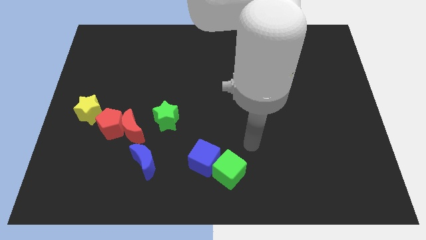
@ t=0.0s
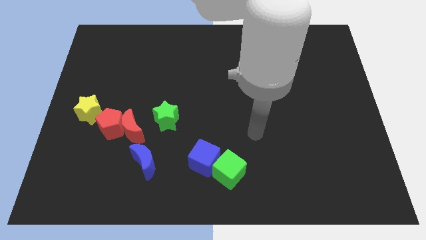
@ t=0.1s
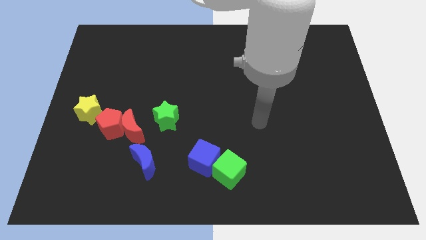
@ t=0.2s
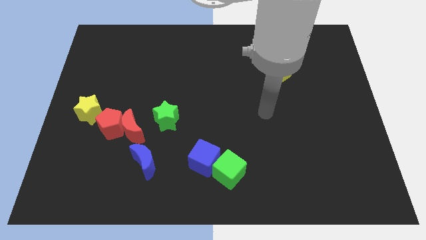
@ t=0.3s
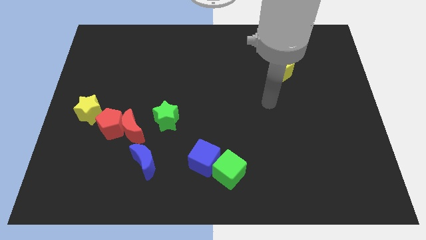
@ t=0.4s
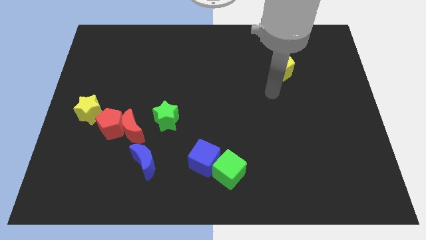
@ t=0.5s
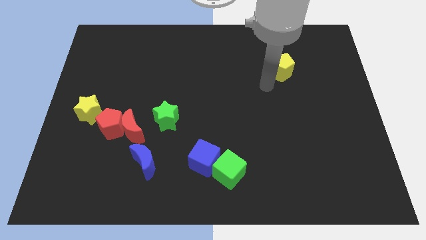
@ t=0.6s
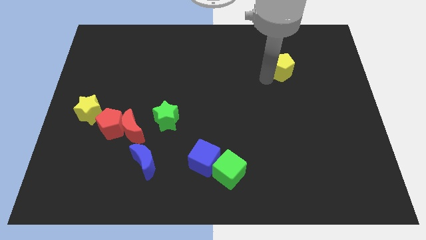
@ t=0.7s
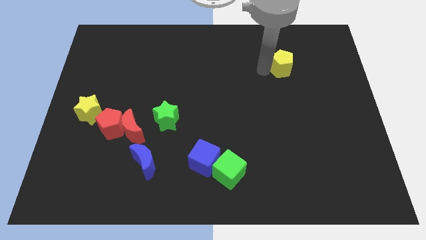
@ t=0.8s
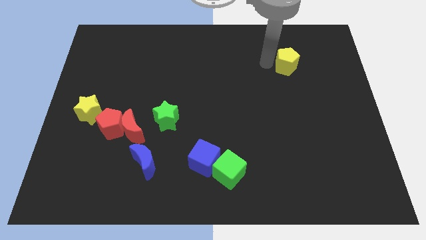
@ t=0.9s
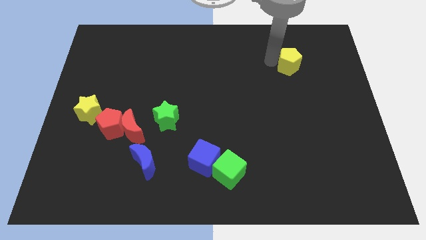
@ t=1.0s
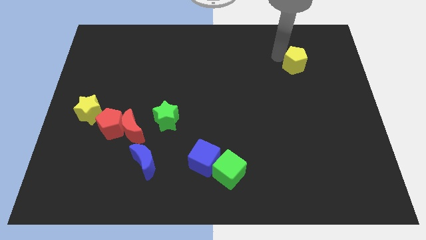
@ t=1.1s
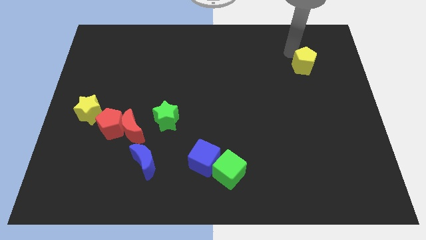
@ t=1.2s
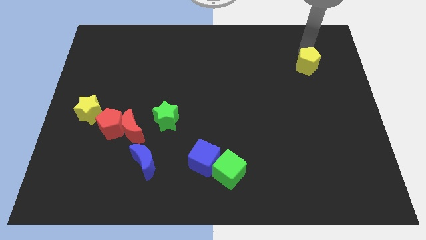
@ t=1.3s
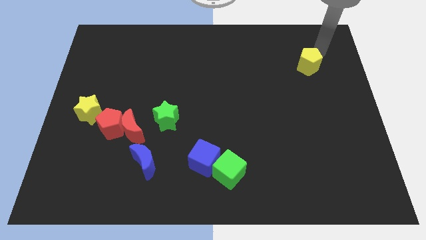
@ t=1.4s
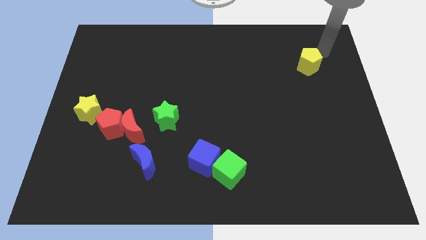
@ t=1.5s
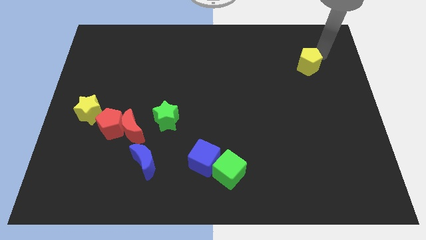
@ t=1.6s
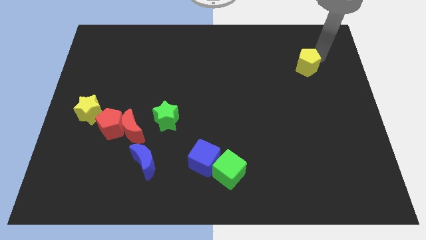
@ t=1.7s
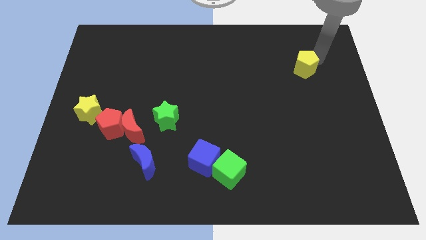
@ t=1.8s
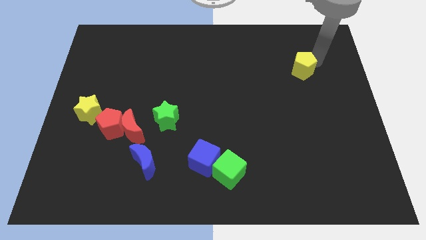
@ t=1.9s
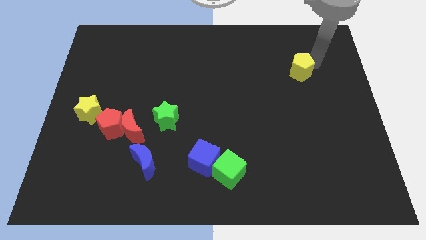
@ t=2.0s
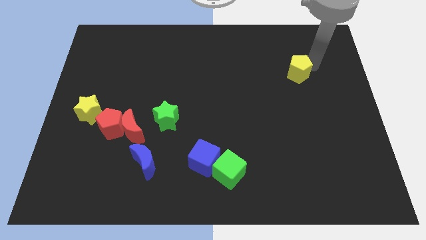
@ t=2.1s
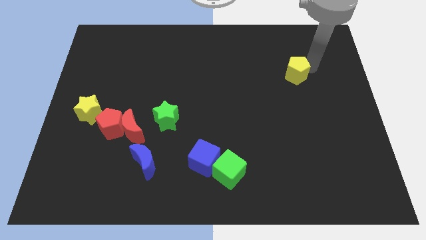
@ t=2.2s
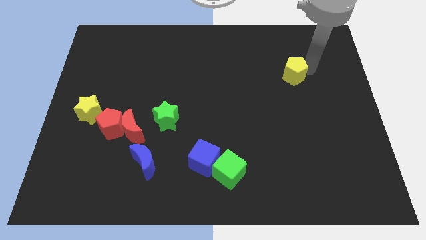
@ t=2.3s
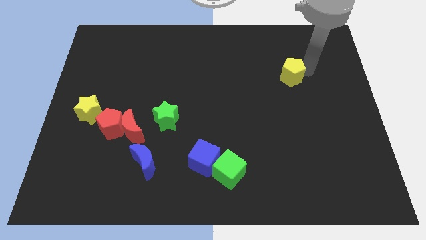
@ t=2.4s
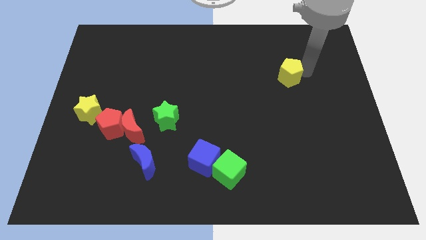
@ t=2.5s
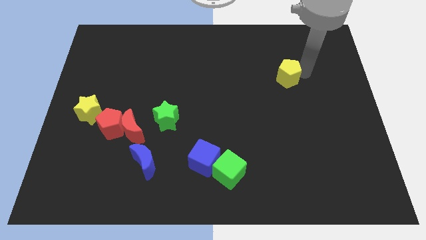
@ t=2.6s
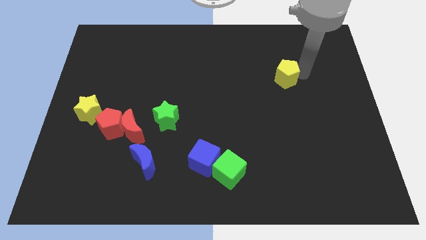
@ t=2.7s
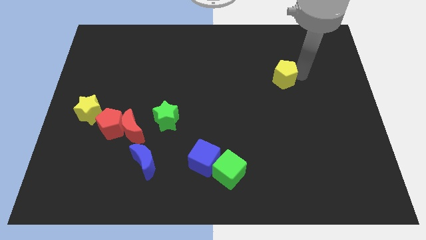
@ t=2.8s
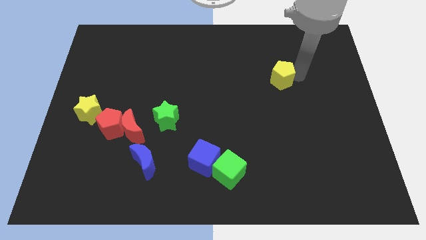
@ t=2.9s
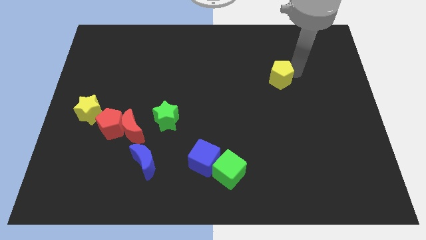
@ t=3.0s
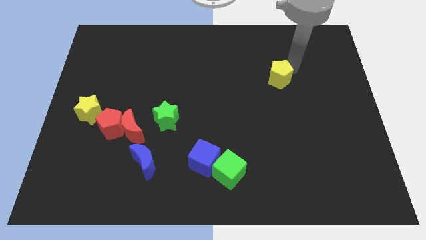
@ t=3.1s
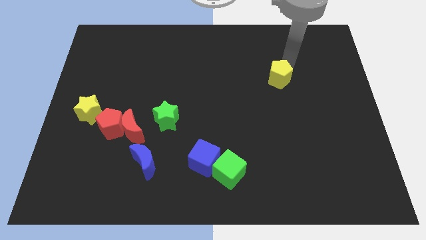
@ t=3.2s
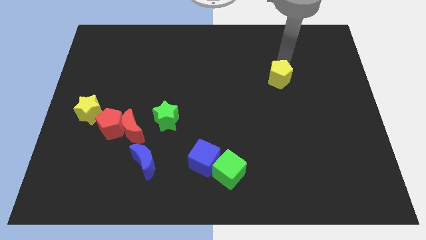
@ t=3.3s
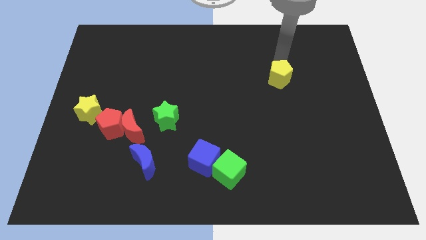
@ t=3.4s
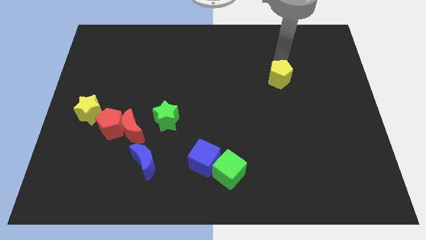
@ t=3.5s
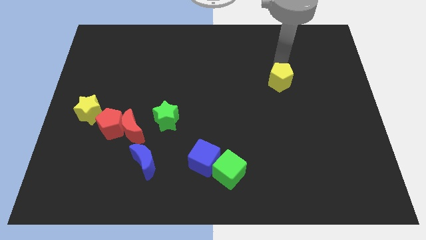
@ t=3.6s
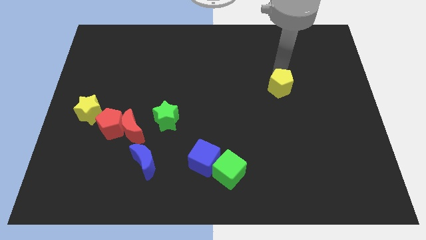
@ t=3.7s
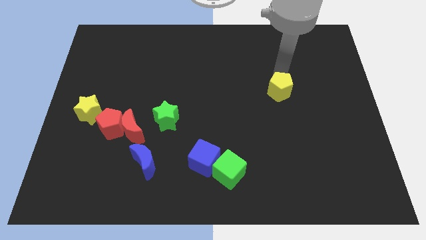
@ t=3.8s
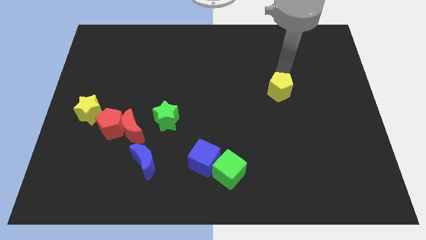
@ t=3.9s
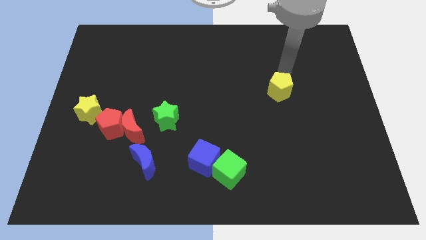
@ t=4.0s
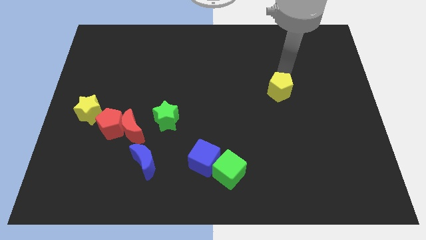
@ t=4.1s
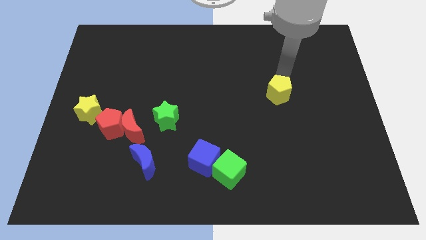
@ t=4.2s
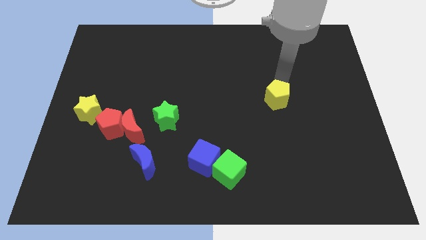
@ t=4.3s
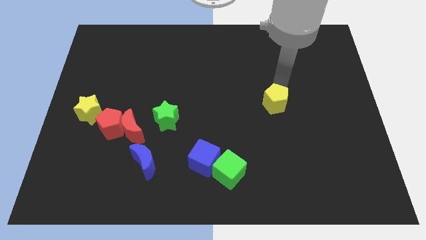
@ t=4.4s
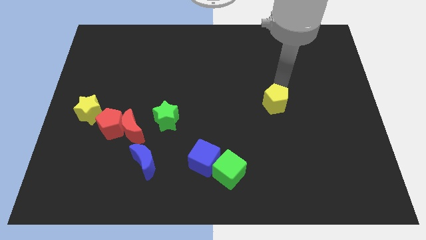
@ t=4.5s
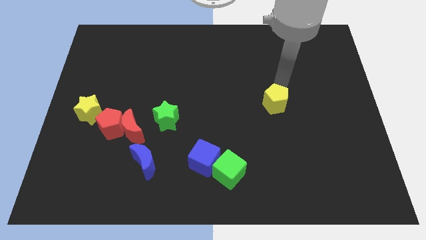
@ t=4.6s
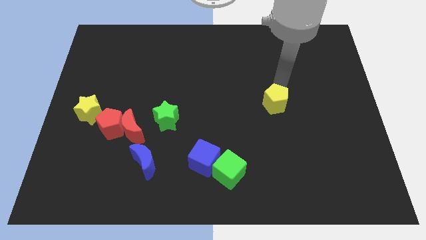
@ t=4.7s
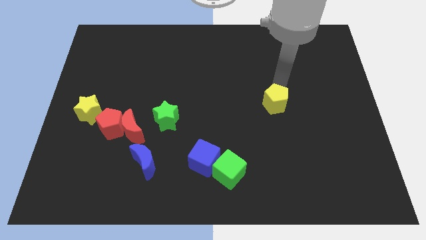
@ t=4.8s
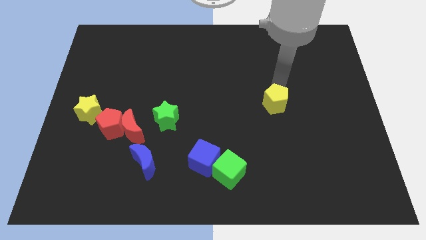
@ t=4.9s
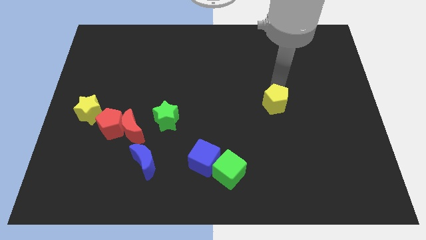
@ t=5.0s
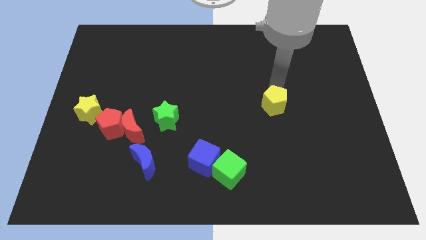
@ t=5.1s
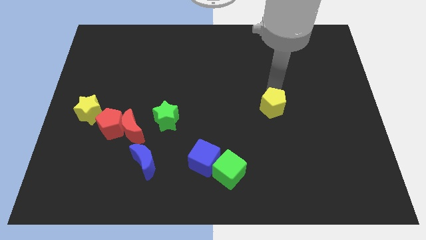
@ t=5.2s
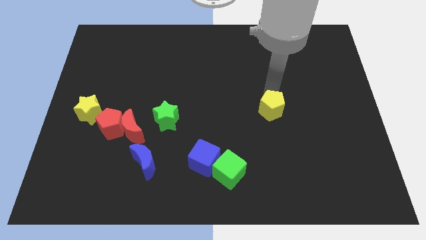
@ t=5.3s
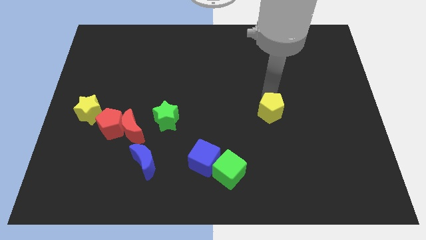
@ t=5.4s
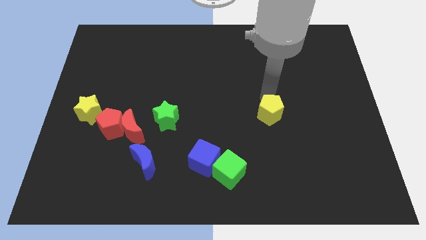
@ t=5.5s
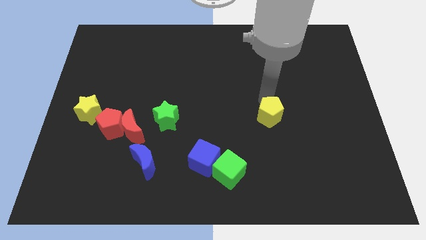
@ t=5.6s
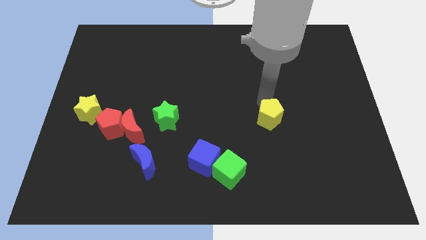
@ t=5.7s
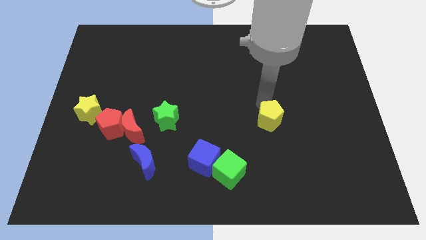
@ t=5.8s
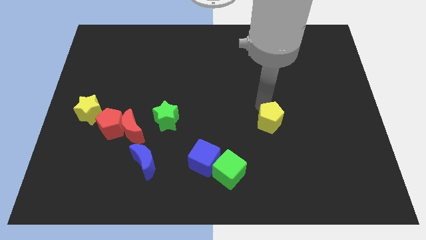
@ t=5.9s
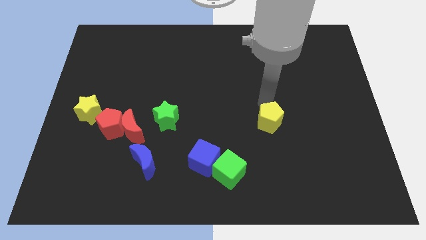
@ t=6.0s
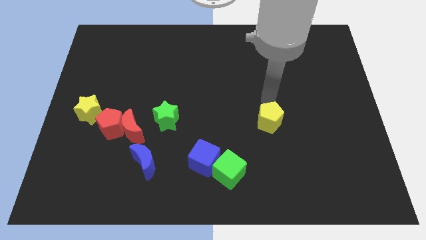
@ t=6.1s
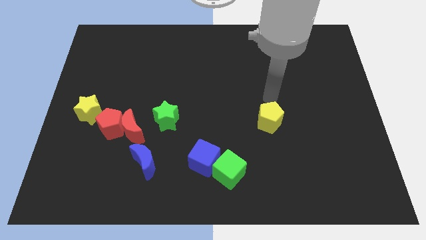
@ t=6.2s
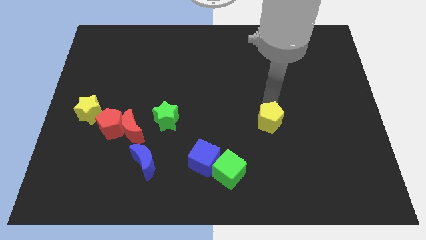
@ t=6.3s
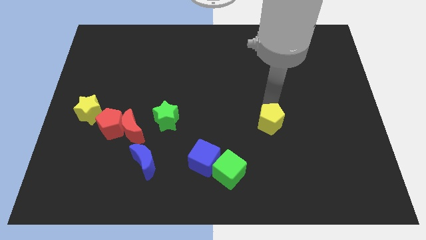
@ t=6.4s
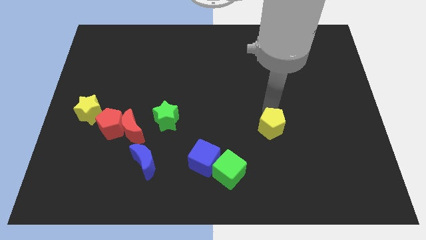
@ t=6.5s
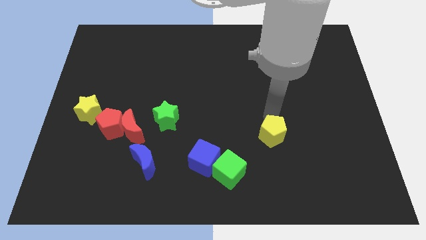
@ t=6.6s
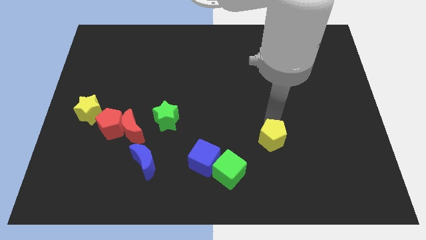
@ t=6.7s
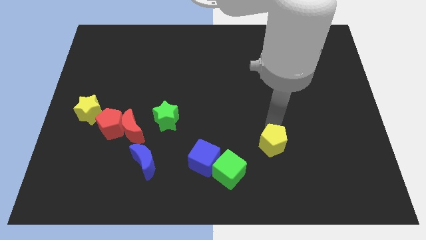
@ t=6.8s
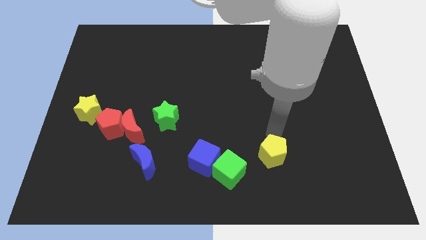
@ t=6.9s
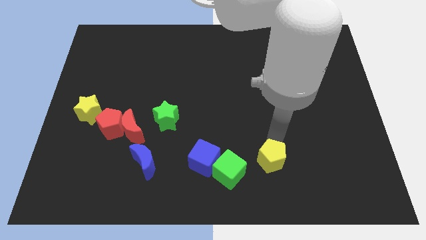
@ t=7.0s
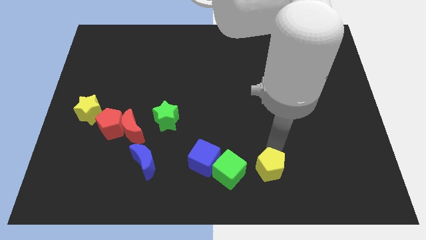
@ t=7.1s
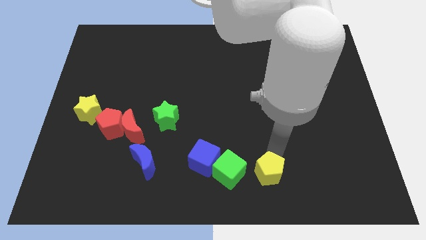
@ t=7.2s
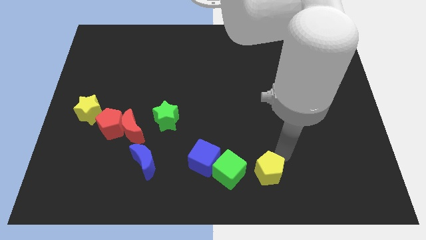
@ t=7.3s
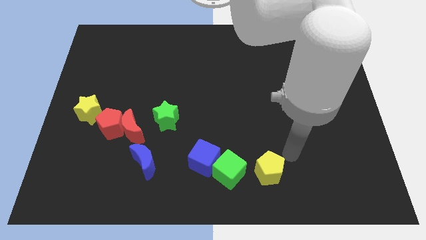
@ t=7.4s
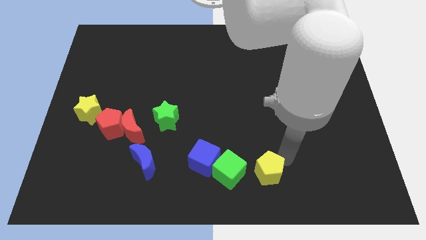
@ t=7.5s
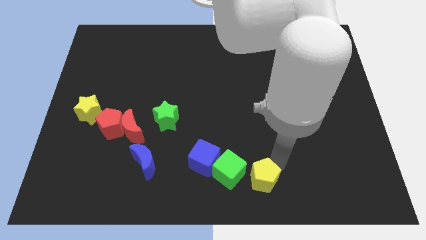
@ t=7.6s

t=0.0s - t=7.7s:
slide the yellow pentagon to the bottom side
